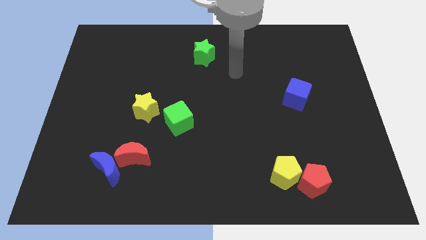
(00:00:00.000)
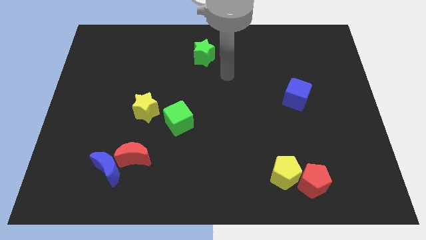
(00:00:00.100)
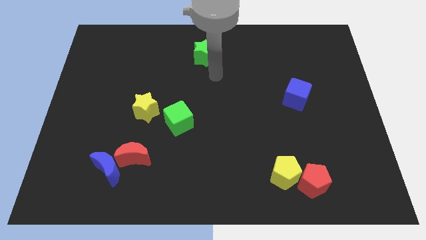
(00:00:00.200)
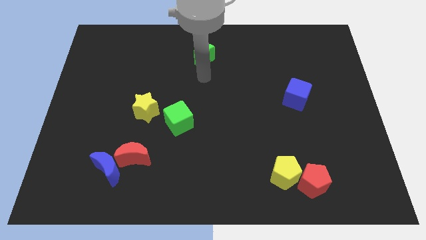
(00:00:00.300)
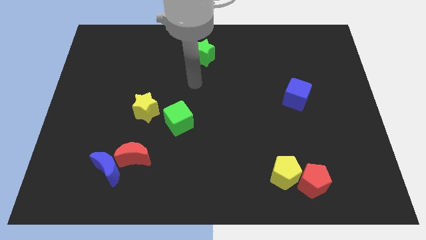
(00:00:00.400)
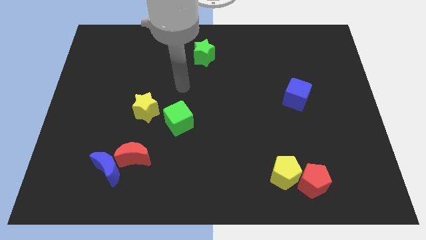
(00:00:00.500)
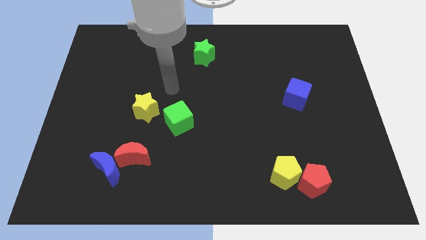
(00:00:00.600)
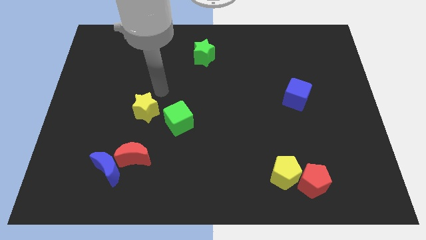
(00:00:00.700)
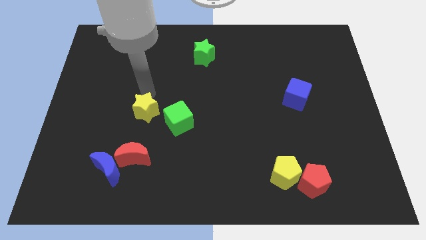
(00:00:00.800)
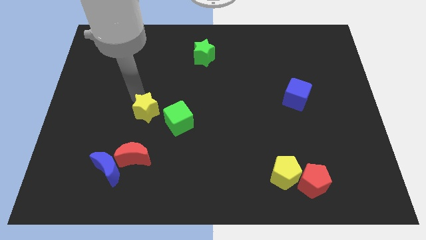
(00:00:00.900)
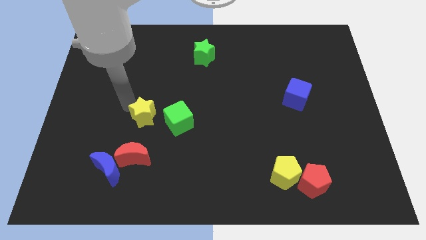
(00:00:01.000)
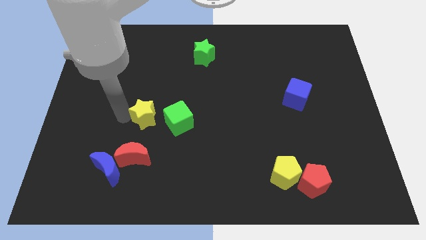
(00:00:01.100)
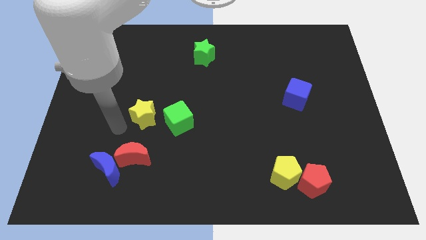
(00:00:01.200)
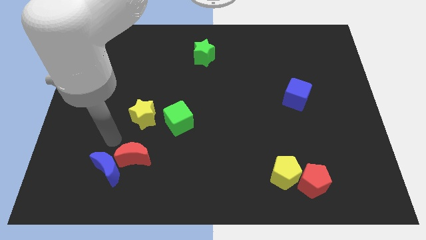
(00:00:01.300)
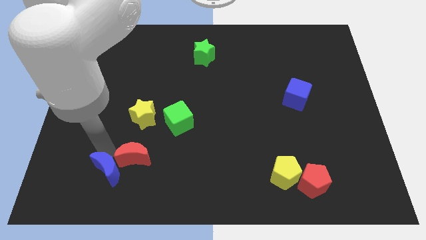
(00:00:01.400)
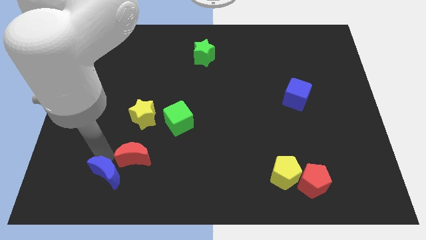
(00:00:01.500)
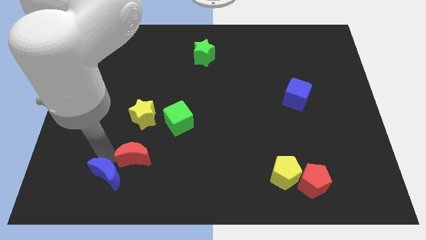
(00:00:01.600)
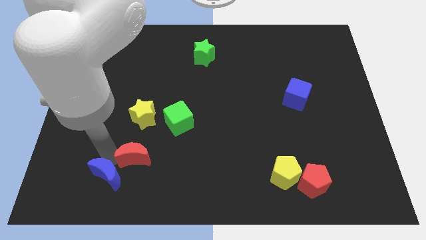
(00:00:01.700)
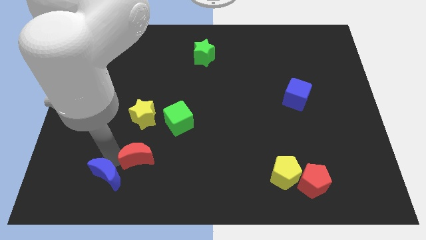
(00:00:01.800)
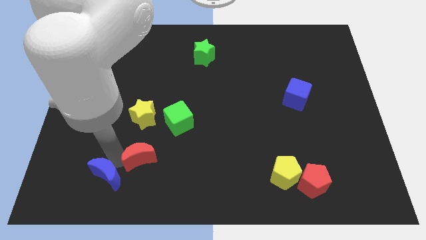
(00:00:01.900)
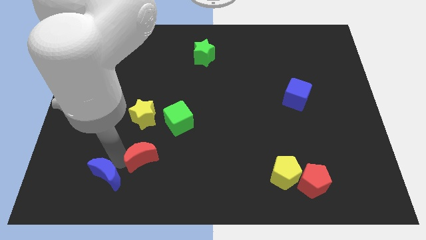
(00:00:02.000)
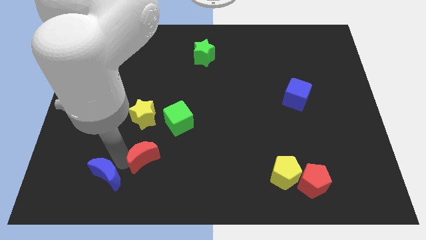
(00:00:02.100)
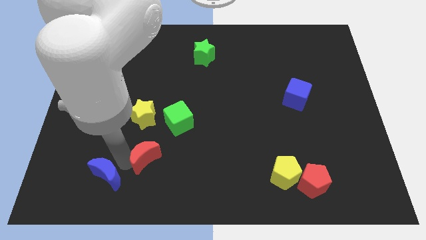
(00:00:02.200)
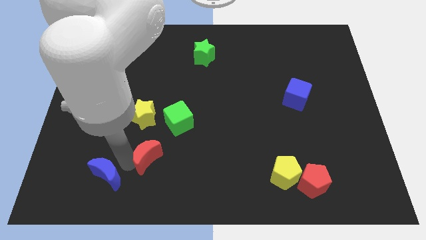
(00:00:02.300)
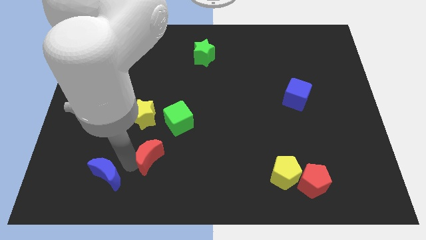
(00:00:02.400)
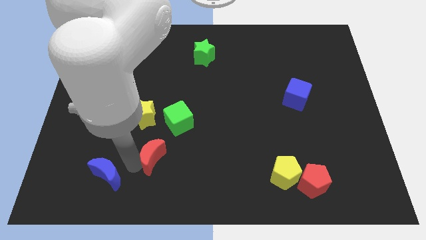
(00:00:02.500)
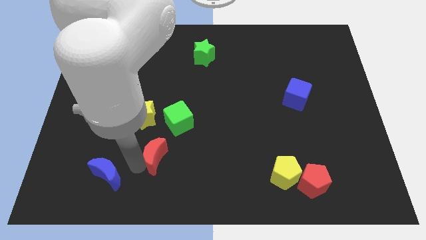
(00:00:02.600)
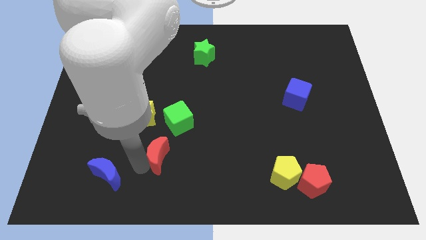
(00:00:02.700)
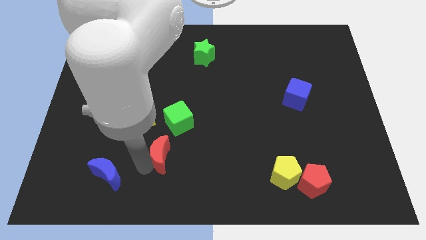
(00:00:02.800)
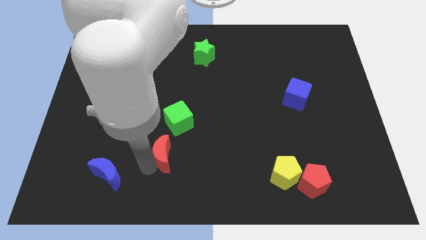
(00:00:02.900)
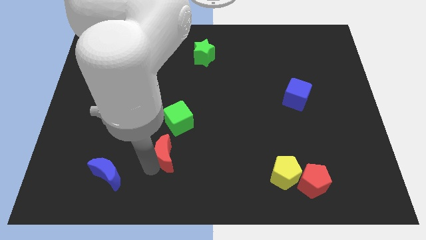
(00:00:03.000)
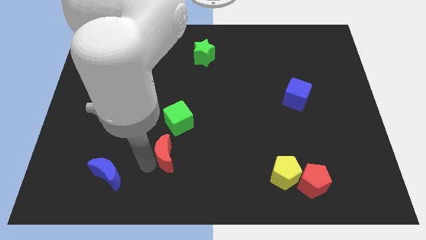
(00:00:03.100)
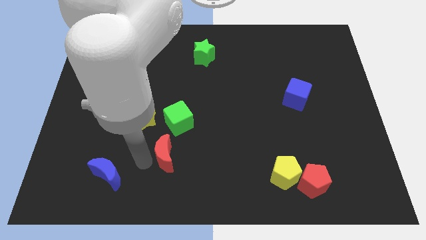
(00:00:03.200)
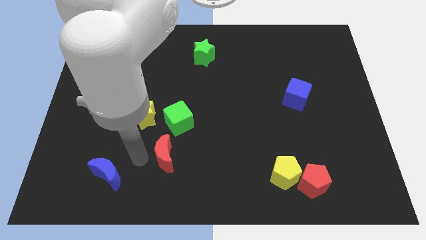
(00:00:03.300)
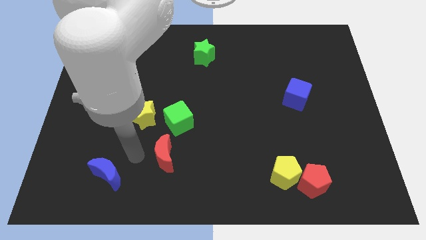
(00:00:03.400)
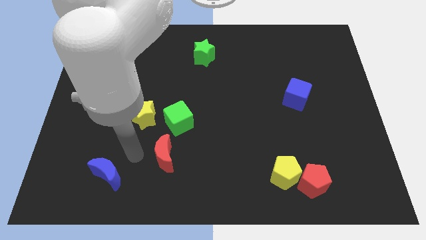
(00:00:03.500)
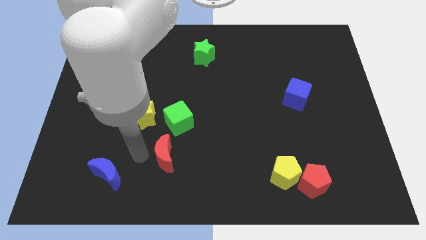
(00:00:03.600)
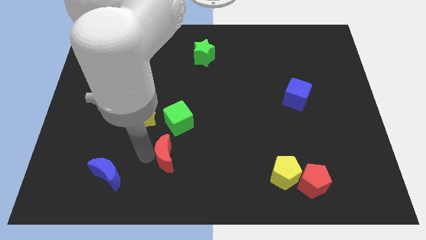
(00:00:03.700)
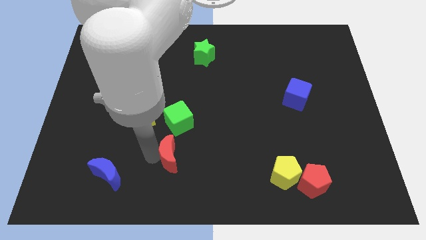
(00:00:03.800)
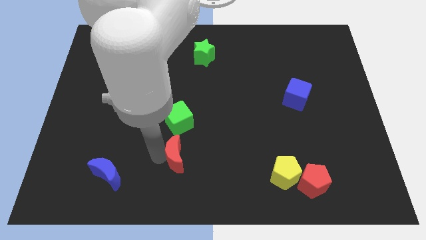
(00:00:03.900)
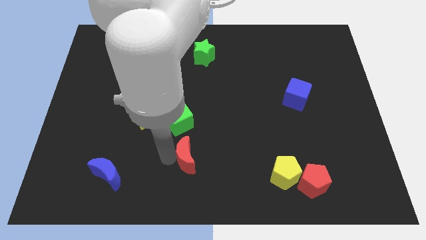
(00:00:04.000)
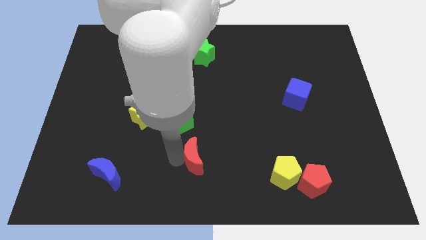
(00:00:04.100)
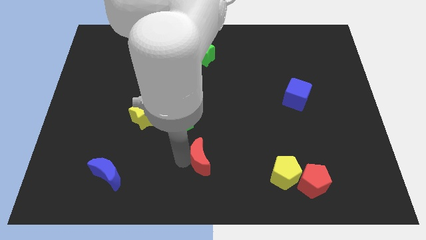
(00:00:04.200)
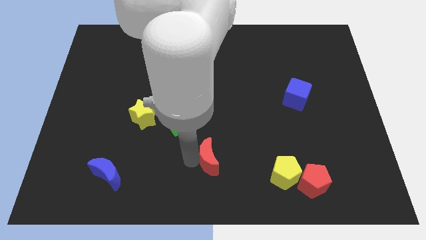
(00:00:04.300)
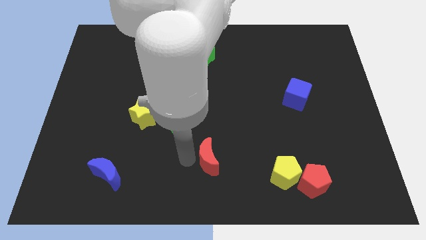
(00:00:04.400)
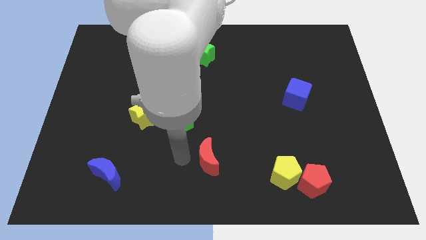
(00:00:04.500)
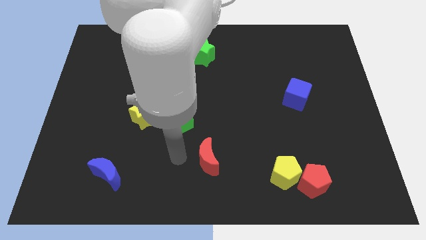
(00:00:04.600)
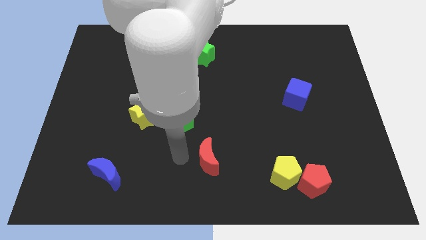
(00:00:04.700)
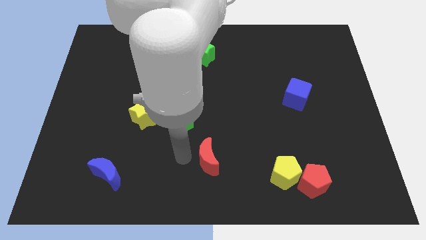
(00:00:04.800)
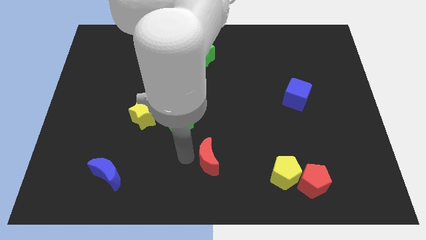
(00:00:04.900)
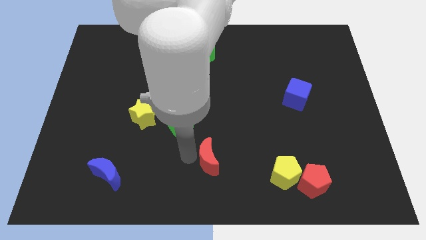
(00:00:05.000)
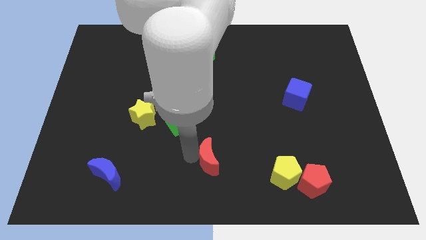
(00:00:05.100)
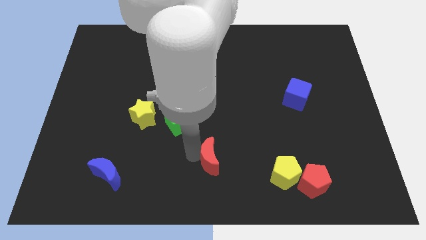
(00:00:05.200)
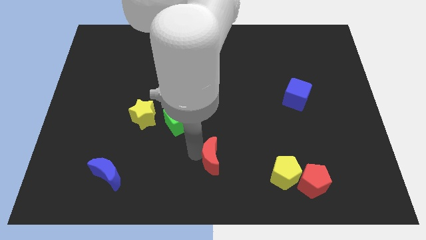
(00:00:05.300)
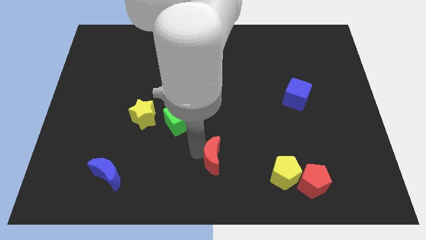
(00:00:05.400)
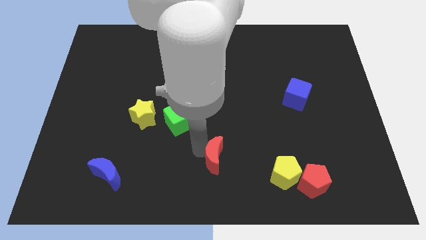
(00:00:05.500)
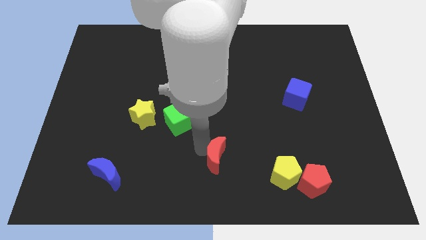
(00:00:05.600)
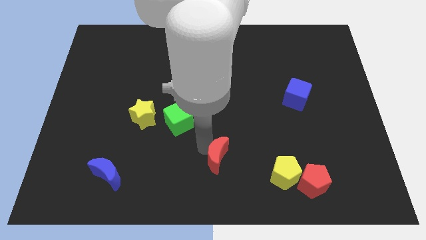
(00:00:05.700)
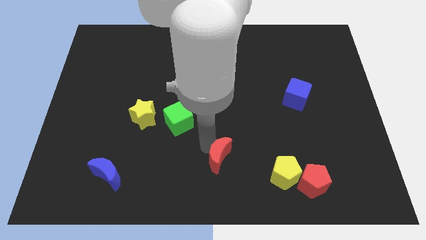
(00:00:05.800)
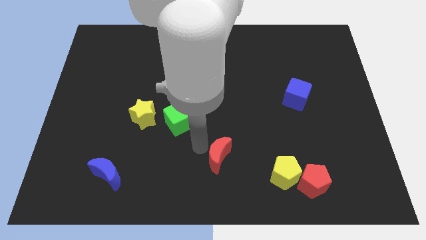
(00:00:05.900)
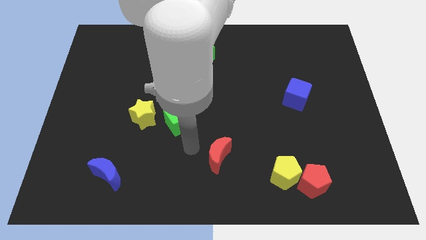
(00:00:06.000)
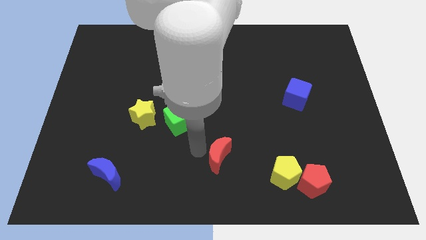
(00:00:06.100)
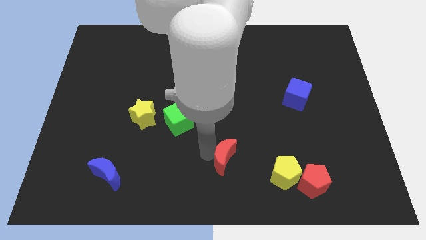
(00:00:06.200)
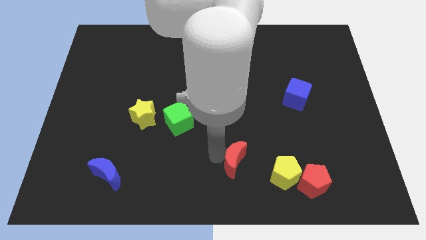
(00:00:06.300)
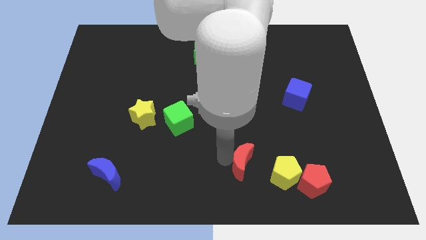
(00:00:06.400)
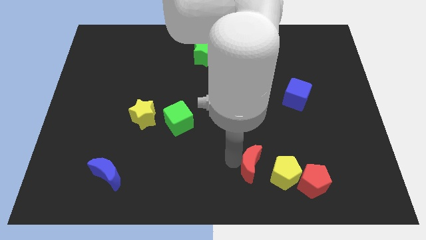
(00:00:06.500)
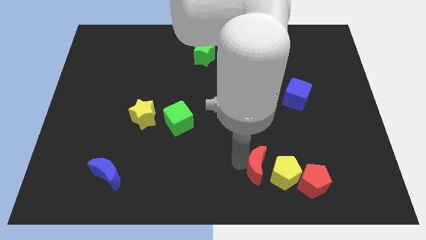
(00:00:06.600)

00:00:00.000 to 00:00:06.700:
put the red moon next to the yellow pentagon
